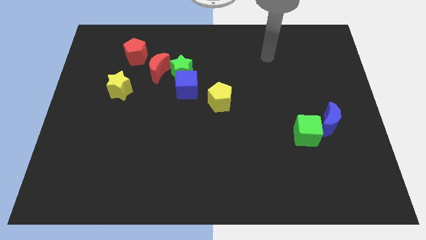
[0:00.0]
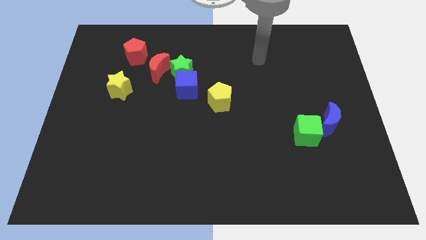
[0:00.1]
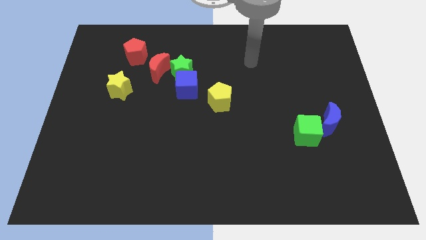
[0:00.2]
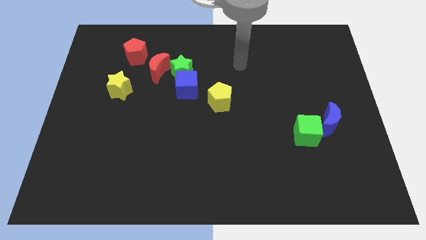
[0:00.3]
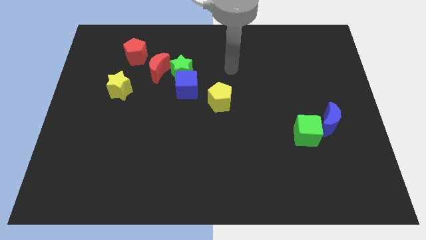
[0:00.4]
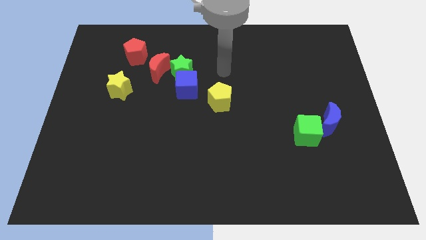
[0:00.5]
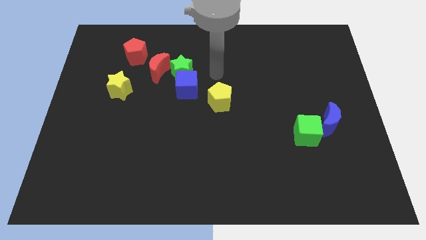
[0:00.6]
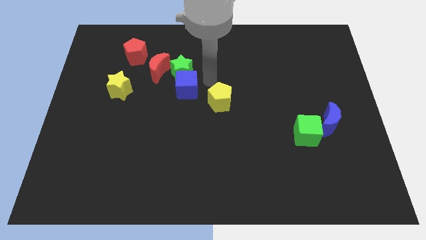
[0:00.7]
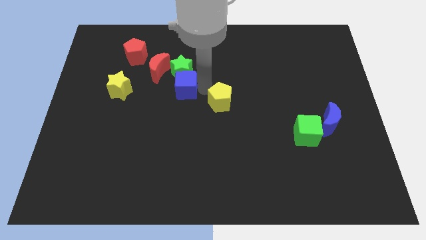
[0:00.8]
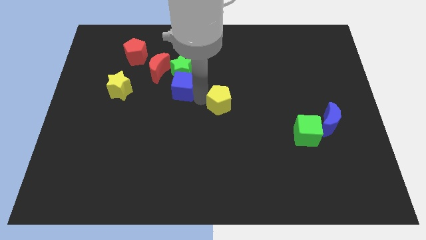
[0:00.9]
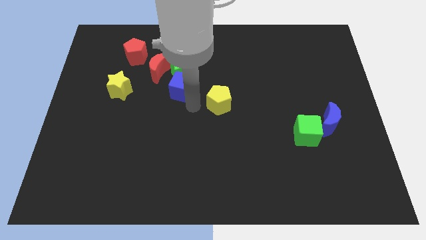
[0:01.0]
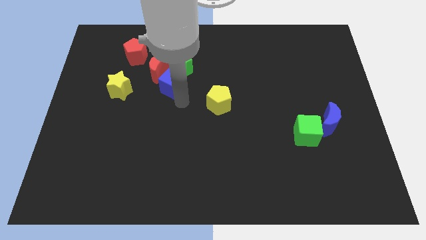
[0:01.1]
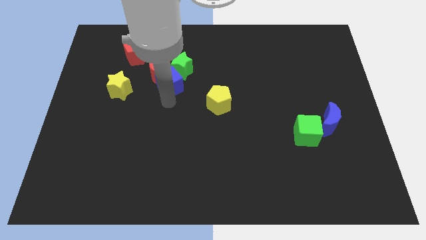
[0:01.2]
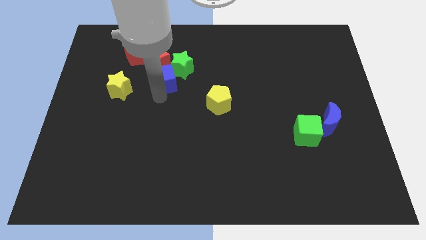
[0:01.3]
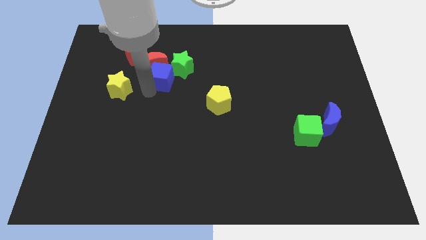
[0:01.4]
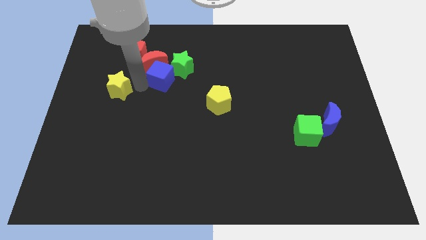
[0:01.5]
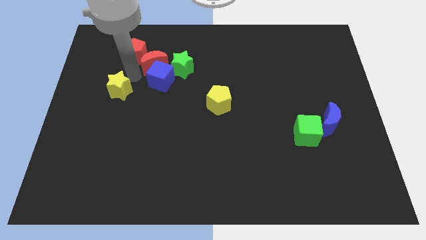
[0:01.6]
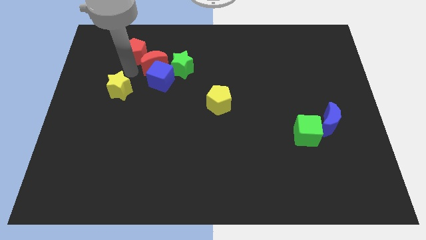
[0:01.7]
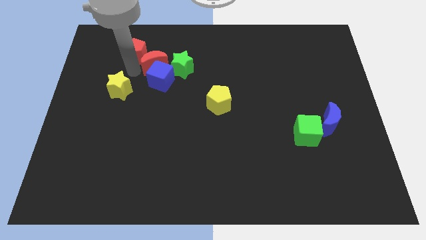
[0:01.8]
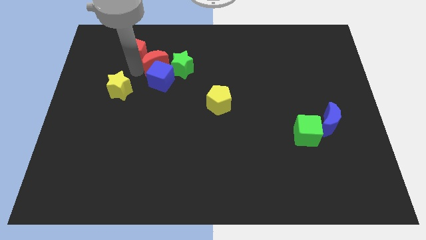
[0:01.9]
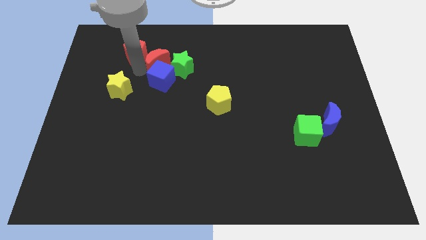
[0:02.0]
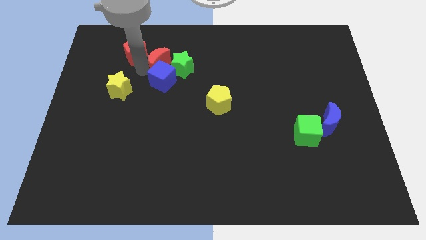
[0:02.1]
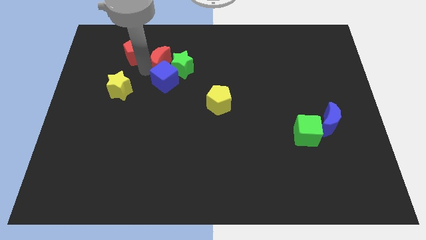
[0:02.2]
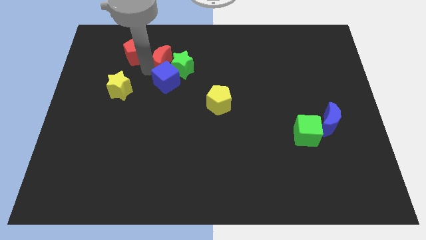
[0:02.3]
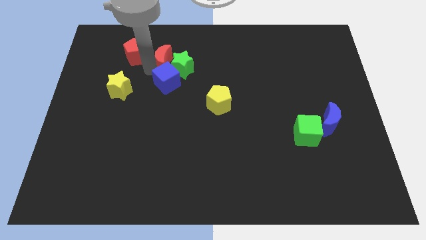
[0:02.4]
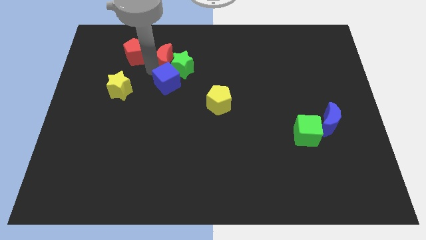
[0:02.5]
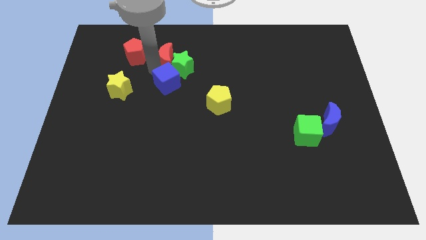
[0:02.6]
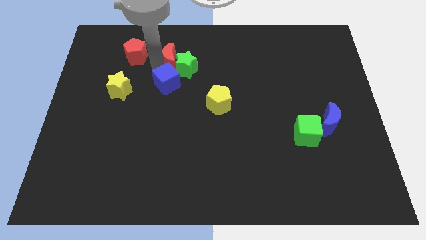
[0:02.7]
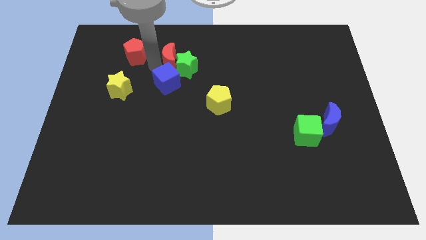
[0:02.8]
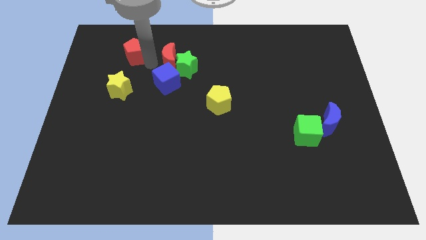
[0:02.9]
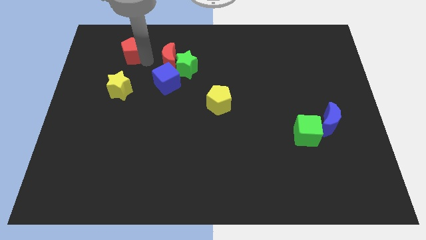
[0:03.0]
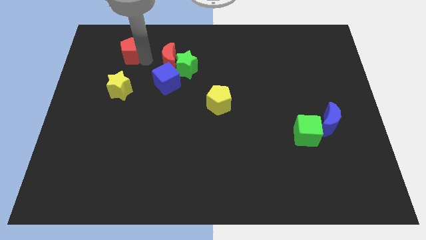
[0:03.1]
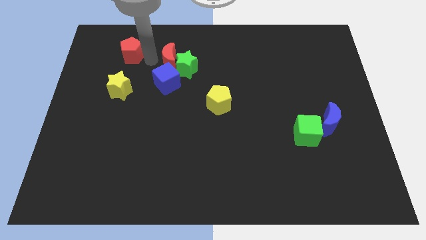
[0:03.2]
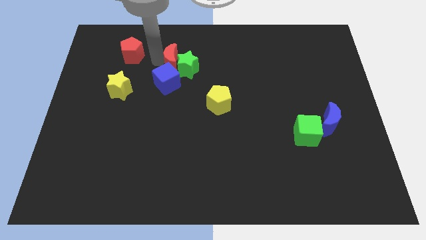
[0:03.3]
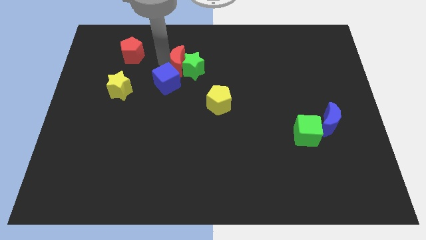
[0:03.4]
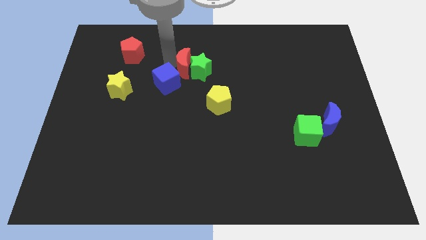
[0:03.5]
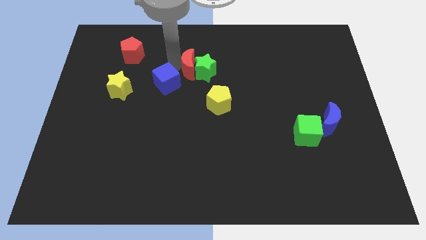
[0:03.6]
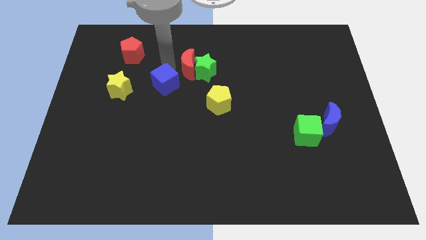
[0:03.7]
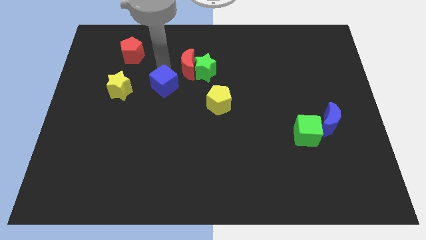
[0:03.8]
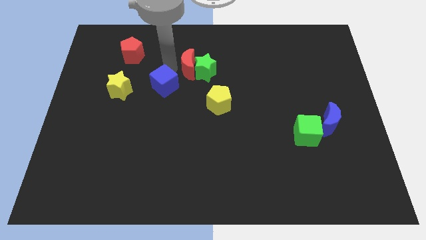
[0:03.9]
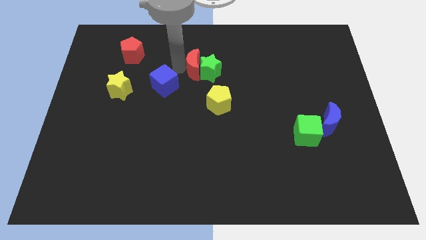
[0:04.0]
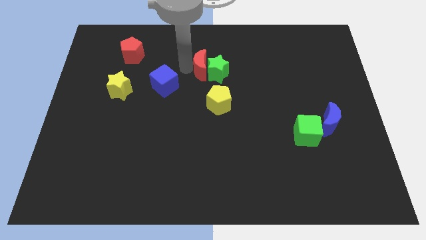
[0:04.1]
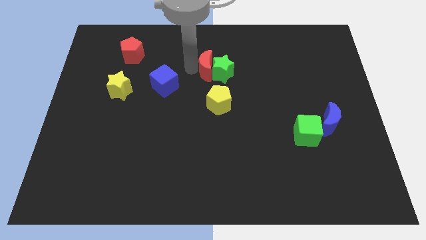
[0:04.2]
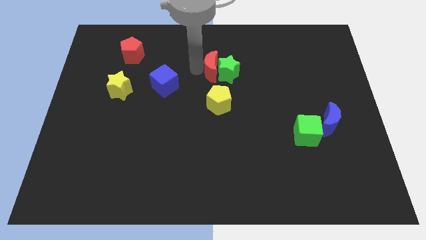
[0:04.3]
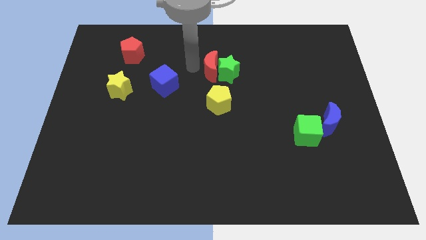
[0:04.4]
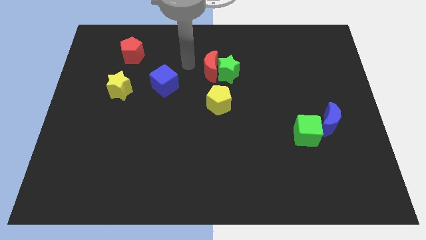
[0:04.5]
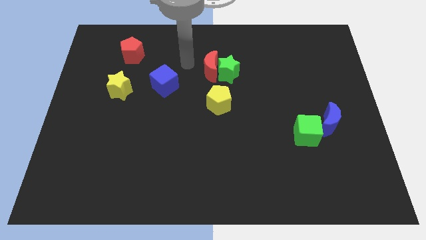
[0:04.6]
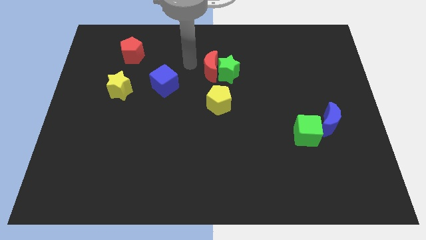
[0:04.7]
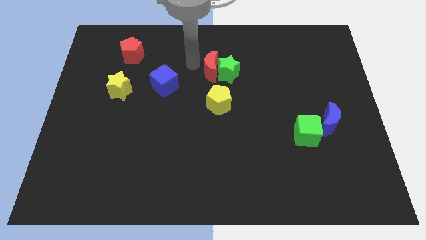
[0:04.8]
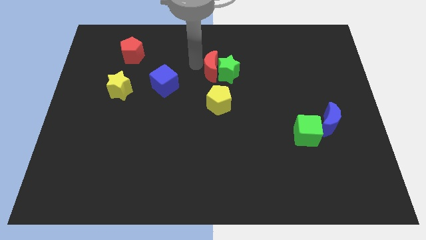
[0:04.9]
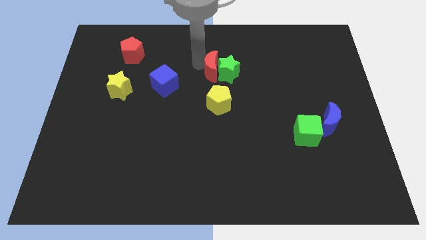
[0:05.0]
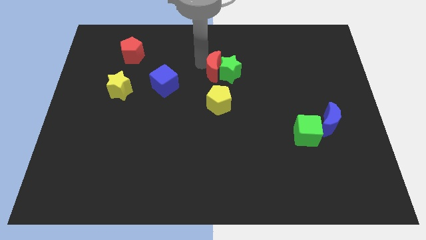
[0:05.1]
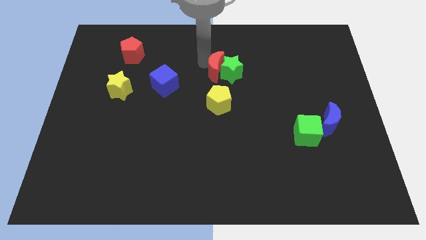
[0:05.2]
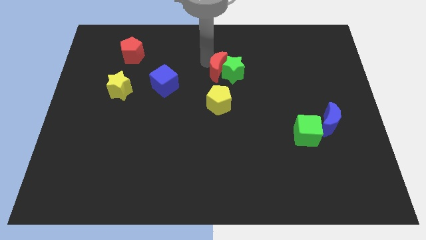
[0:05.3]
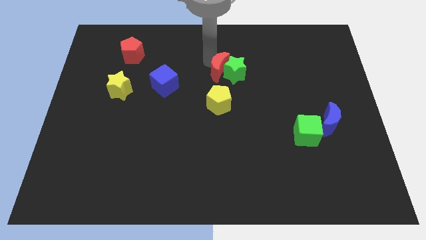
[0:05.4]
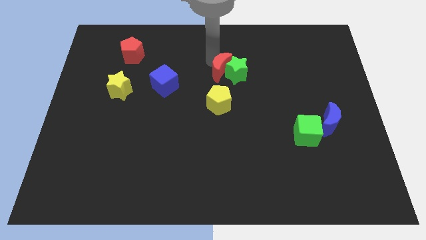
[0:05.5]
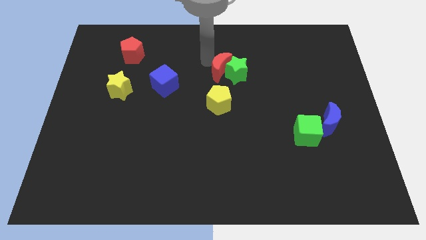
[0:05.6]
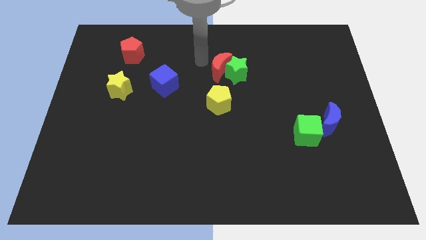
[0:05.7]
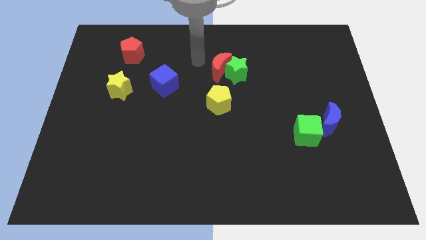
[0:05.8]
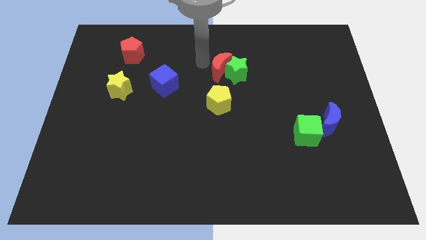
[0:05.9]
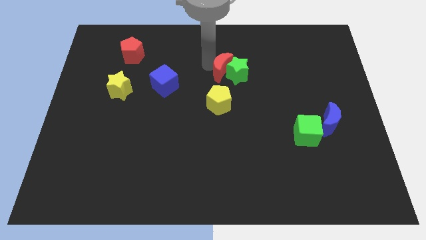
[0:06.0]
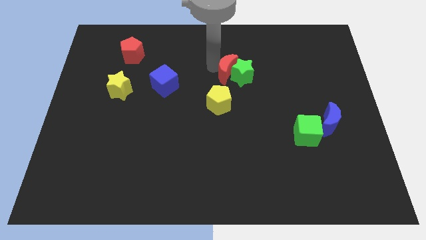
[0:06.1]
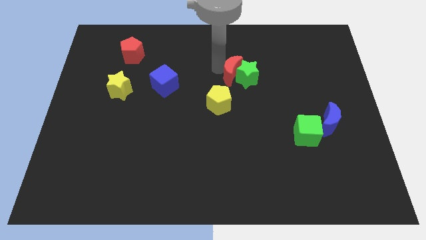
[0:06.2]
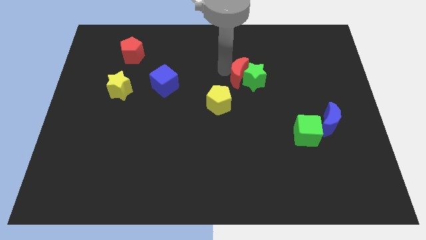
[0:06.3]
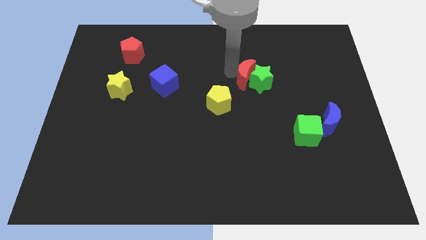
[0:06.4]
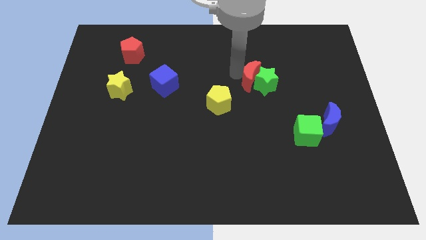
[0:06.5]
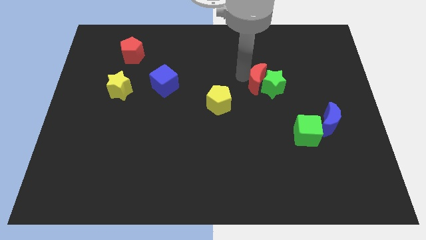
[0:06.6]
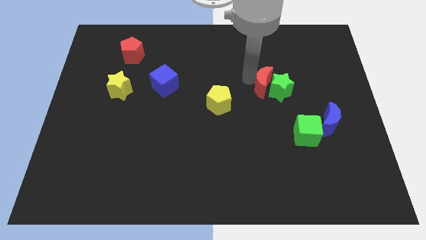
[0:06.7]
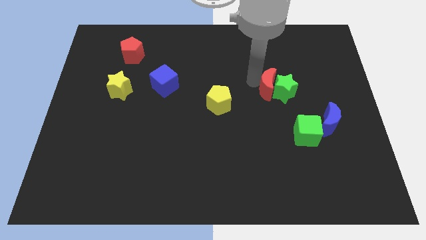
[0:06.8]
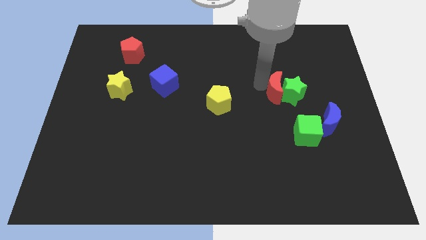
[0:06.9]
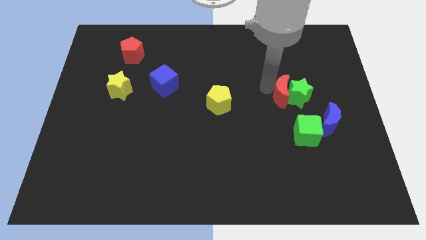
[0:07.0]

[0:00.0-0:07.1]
push the red moon to the top side of the green cube

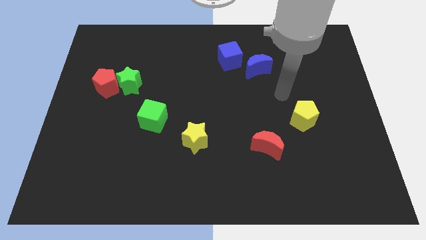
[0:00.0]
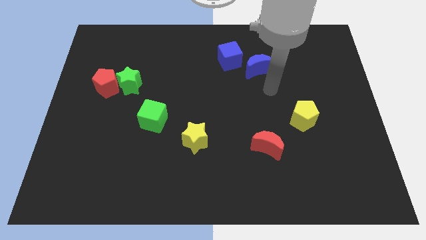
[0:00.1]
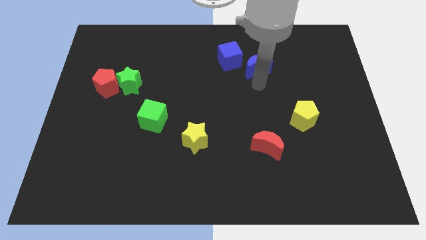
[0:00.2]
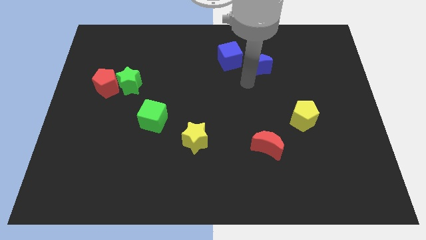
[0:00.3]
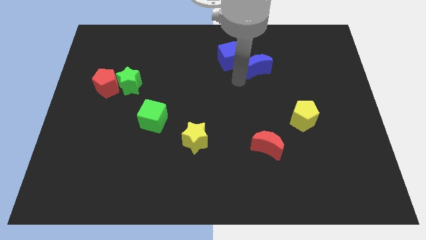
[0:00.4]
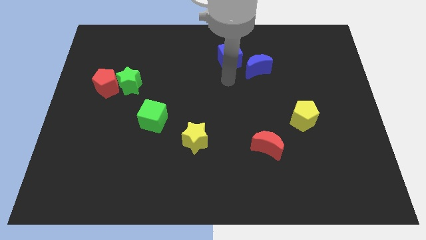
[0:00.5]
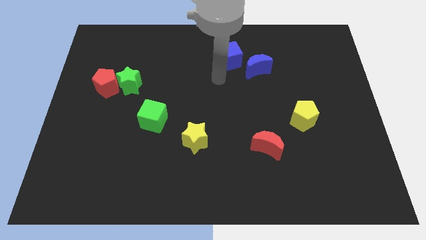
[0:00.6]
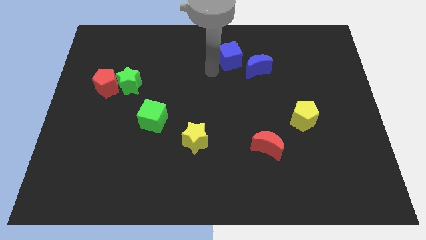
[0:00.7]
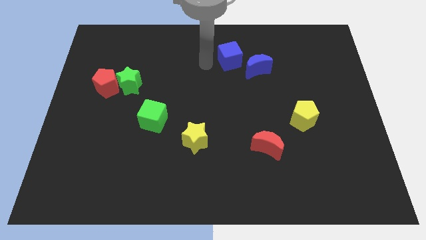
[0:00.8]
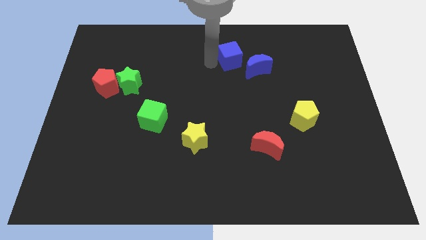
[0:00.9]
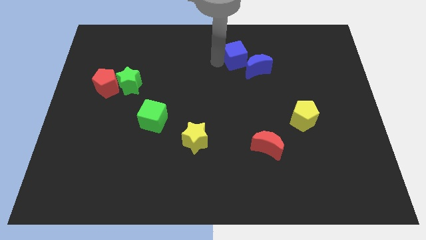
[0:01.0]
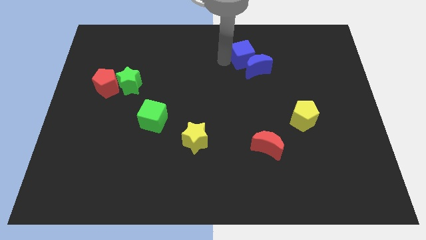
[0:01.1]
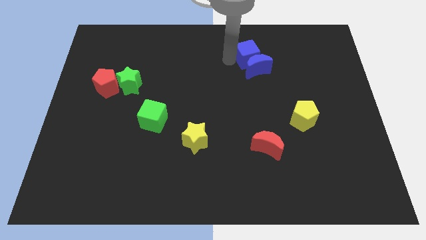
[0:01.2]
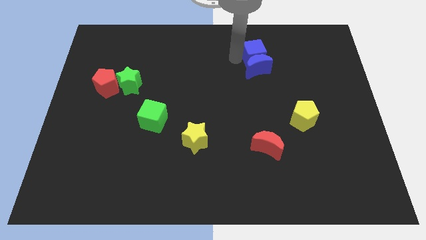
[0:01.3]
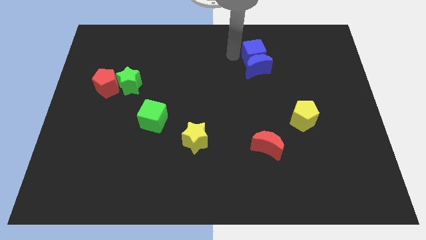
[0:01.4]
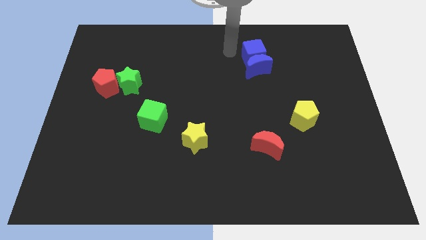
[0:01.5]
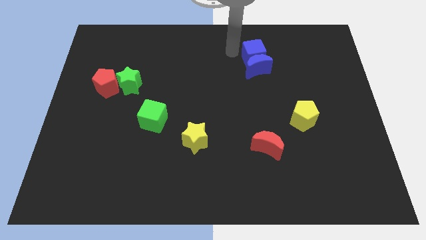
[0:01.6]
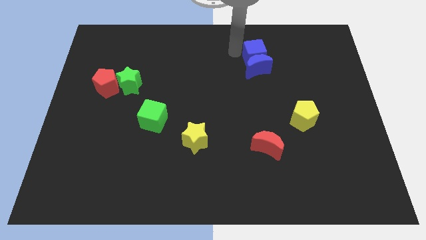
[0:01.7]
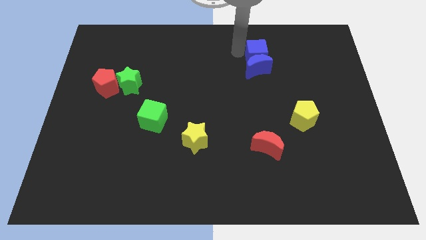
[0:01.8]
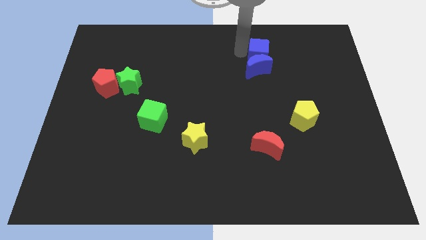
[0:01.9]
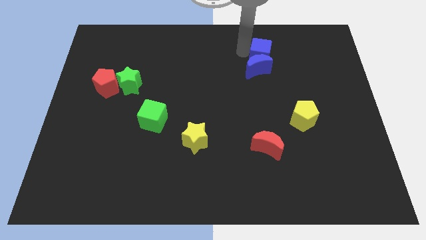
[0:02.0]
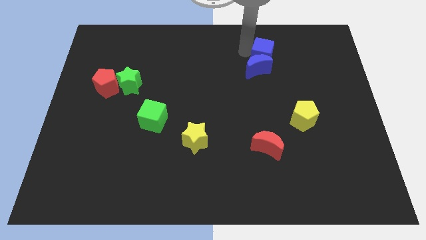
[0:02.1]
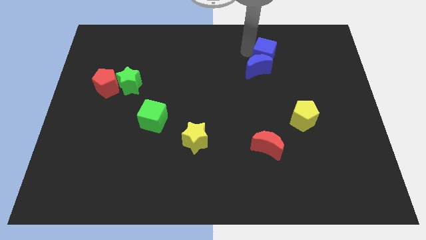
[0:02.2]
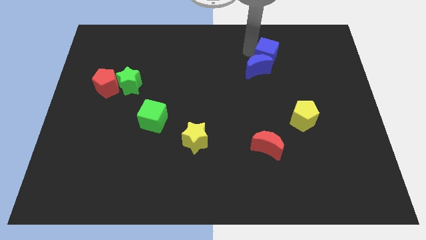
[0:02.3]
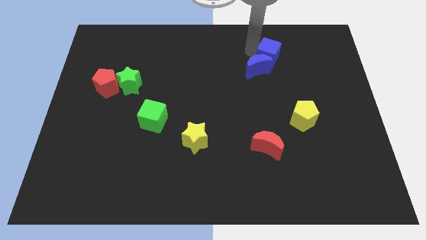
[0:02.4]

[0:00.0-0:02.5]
slide the blue cube right of the blue moon
